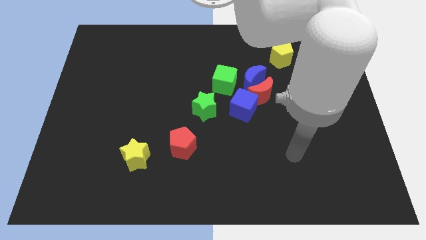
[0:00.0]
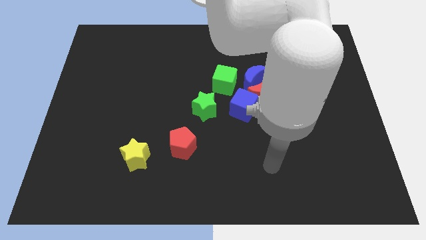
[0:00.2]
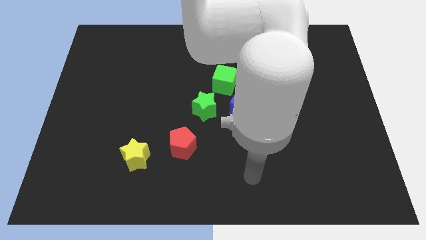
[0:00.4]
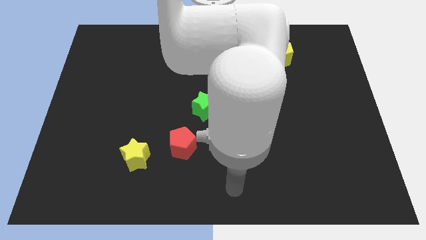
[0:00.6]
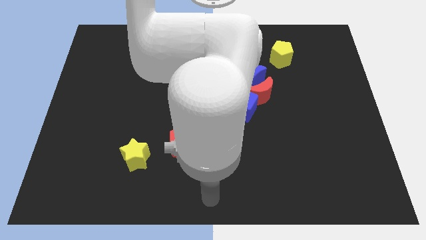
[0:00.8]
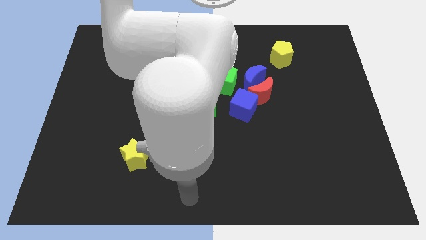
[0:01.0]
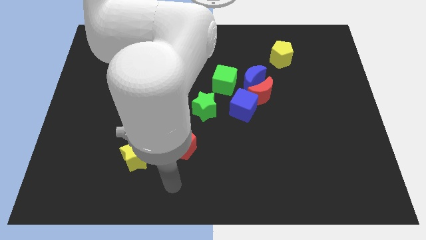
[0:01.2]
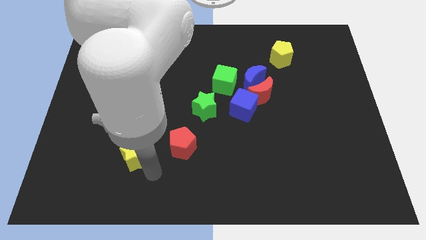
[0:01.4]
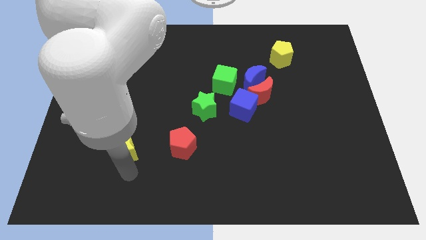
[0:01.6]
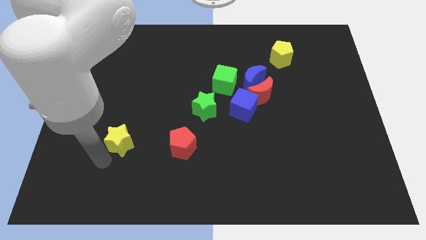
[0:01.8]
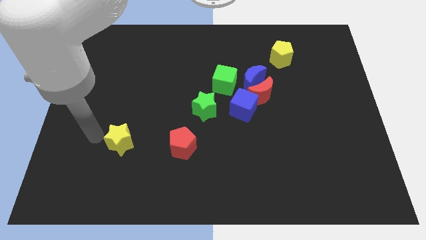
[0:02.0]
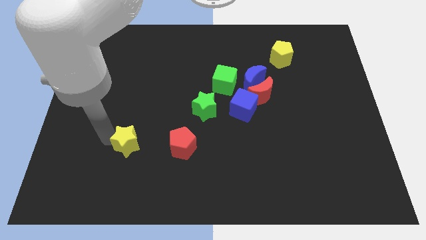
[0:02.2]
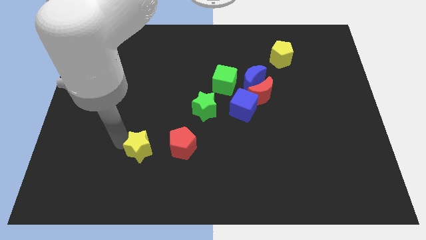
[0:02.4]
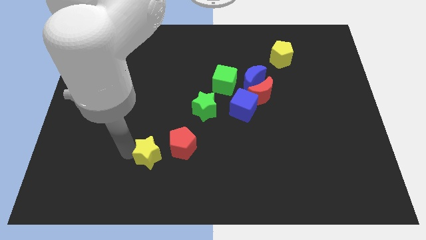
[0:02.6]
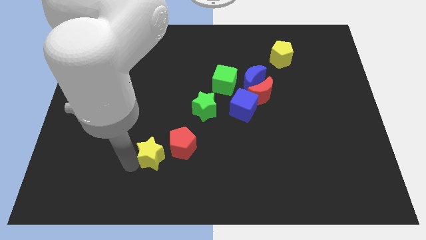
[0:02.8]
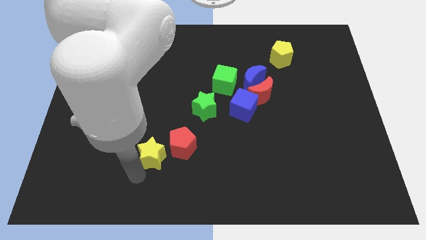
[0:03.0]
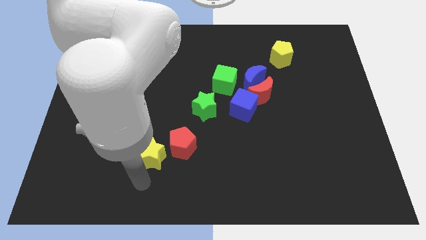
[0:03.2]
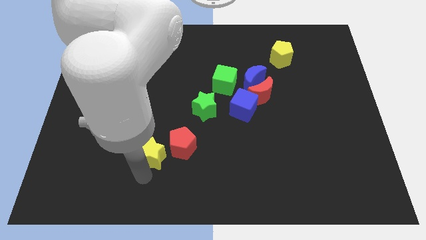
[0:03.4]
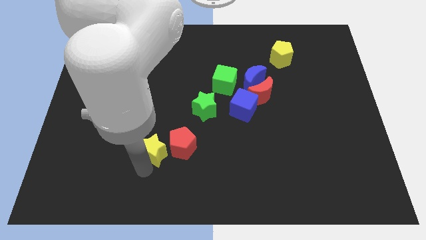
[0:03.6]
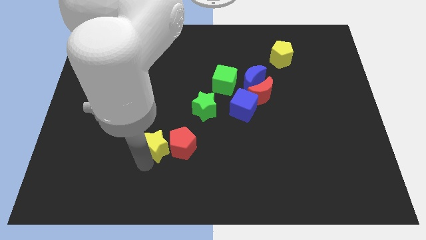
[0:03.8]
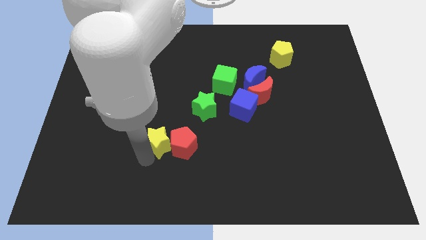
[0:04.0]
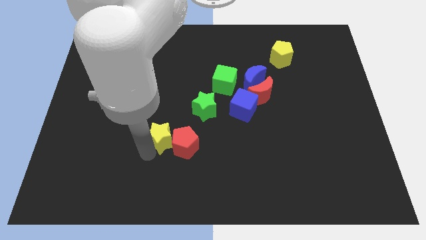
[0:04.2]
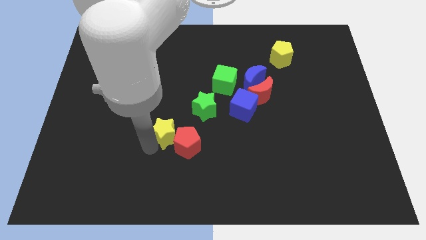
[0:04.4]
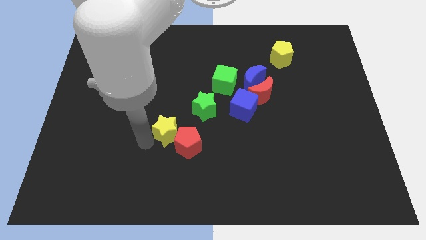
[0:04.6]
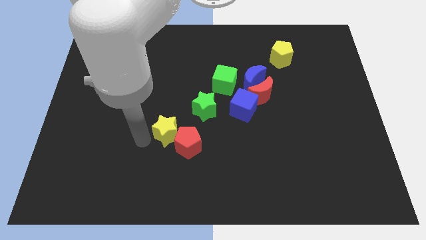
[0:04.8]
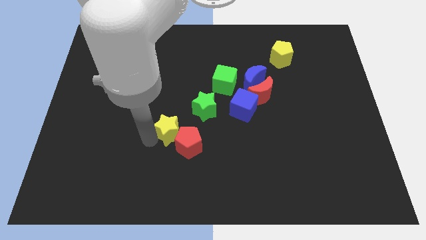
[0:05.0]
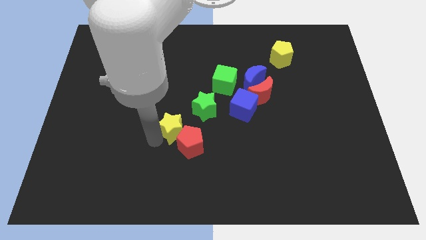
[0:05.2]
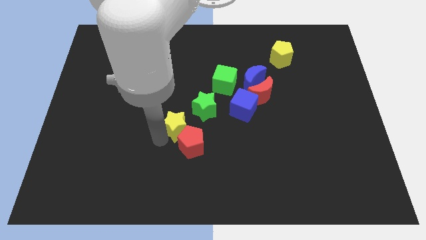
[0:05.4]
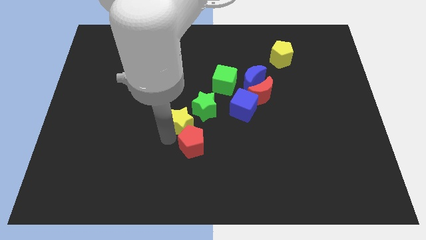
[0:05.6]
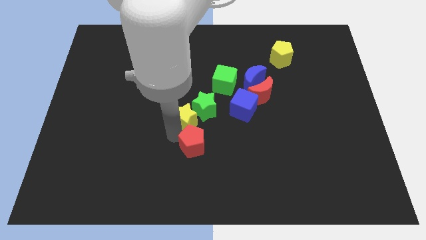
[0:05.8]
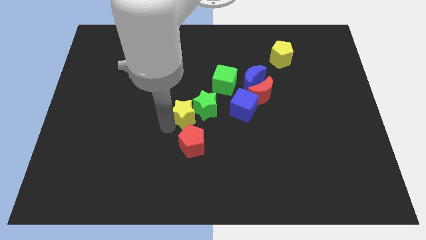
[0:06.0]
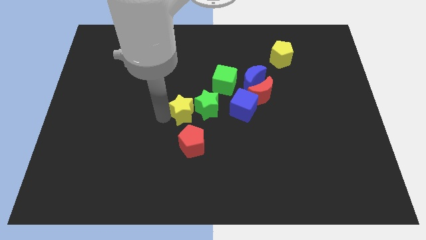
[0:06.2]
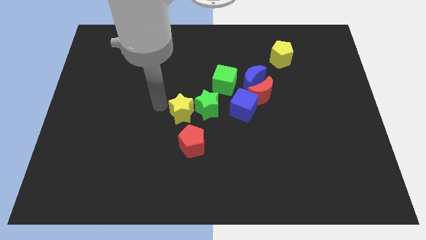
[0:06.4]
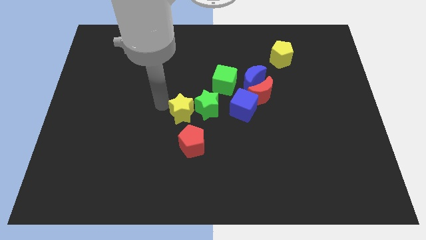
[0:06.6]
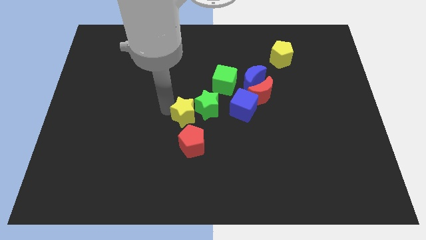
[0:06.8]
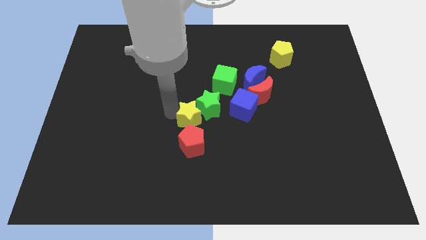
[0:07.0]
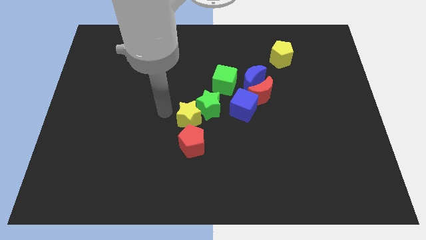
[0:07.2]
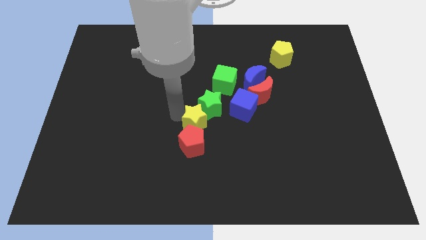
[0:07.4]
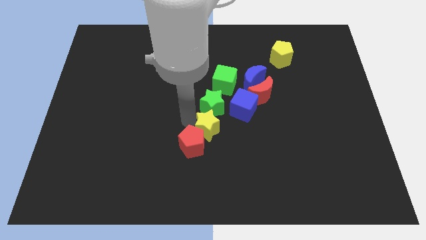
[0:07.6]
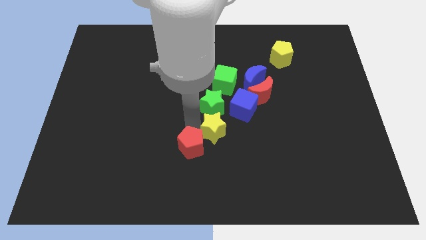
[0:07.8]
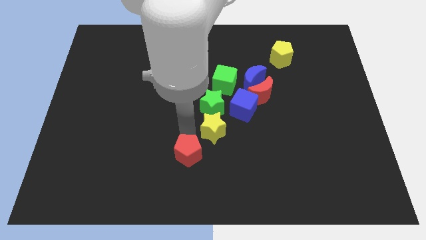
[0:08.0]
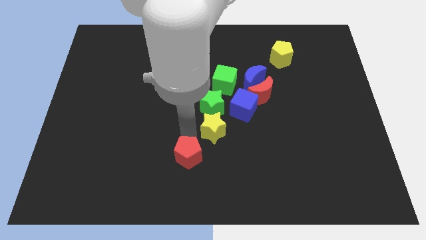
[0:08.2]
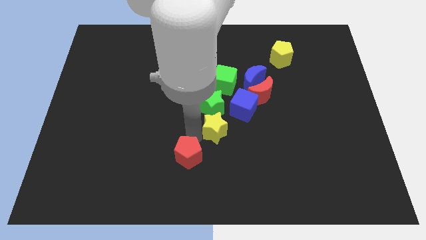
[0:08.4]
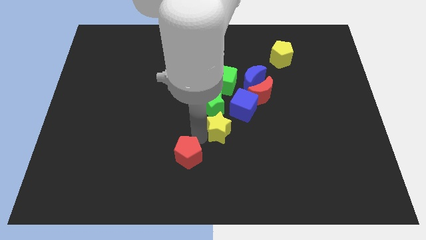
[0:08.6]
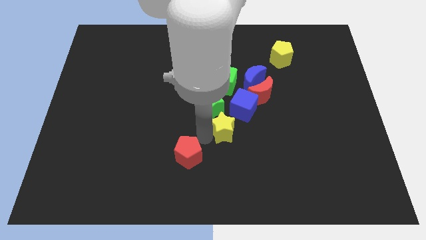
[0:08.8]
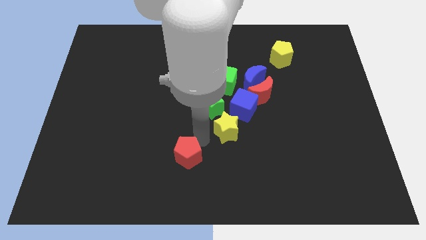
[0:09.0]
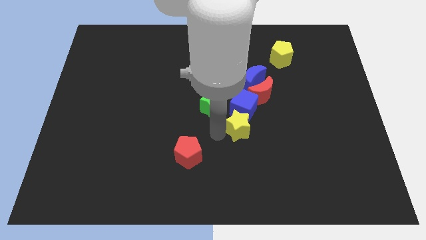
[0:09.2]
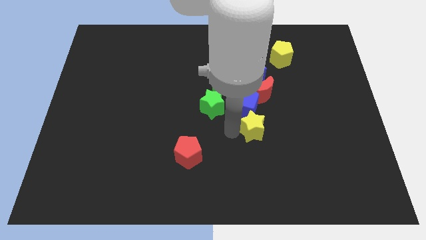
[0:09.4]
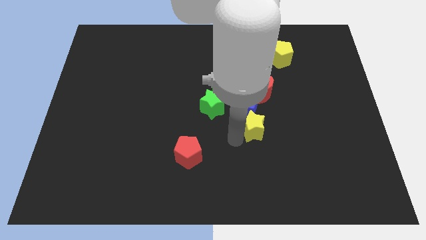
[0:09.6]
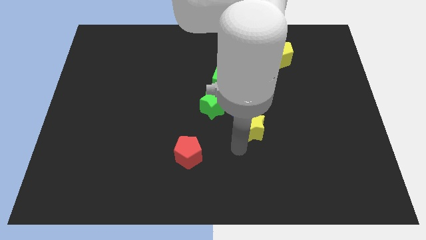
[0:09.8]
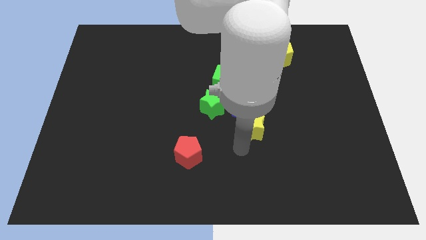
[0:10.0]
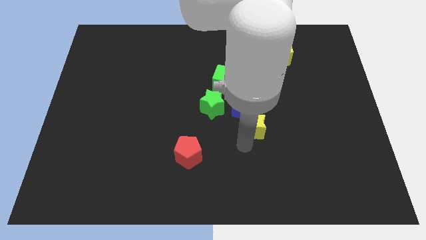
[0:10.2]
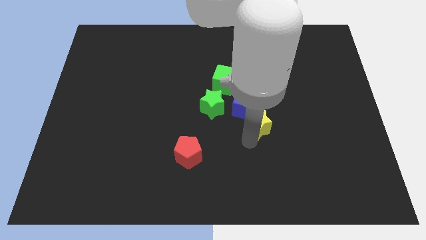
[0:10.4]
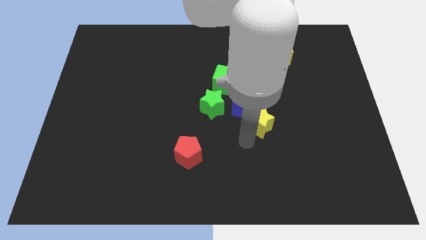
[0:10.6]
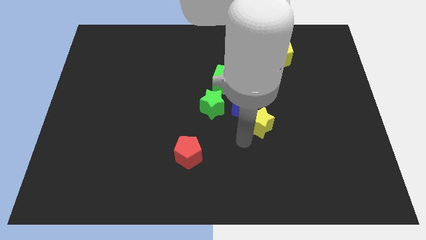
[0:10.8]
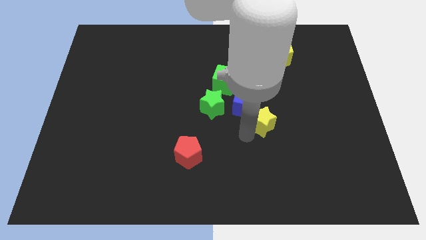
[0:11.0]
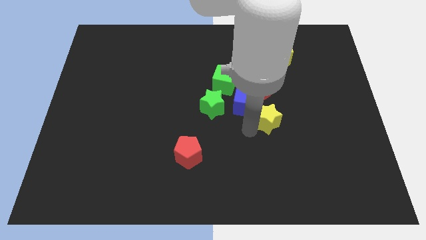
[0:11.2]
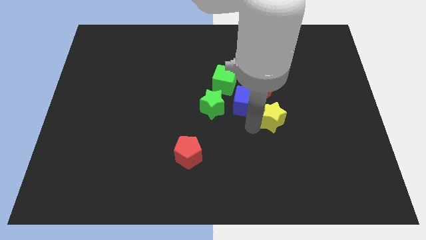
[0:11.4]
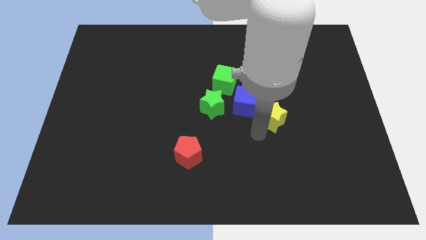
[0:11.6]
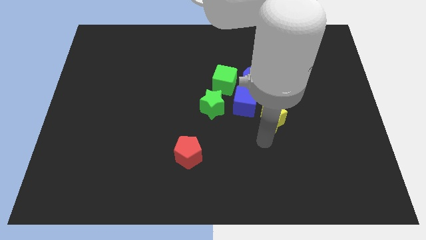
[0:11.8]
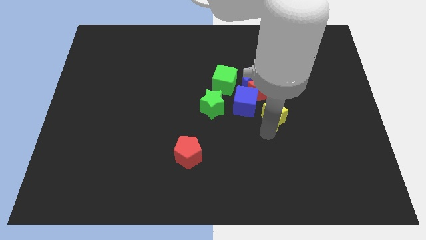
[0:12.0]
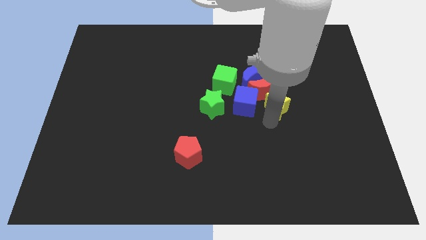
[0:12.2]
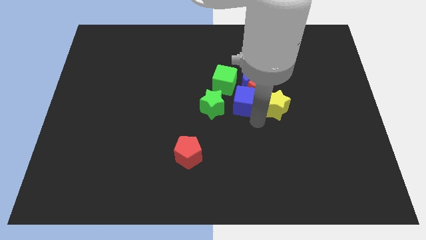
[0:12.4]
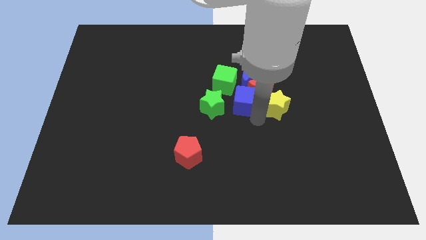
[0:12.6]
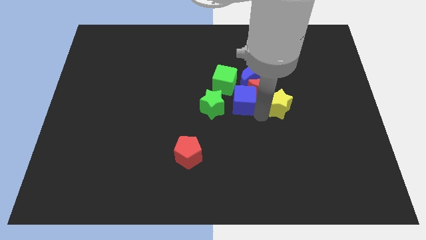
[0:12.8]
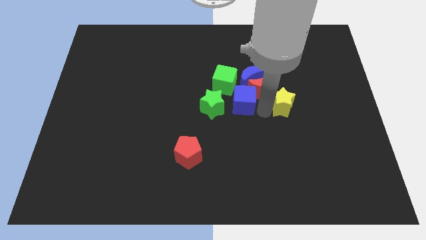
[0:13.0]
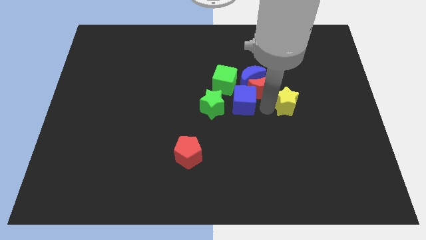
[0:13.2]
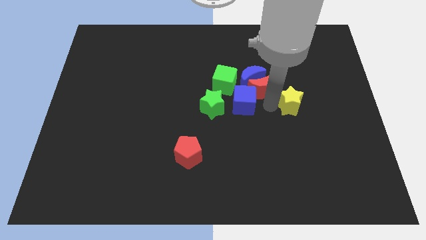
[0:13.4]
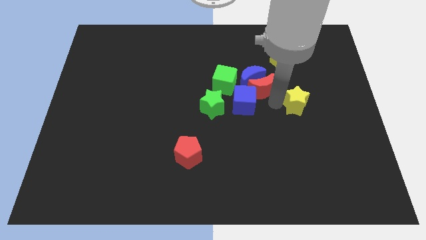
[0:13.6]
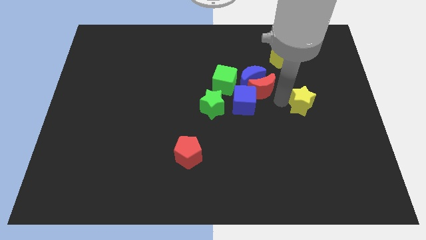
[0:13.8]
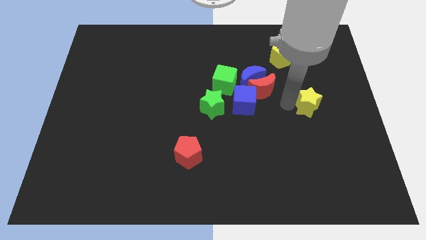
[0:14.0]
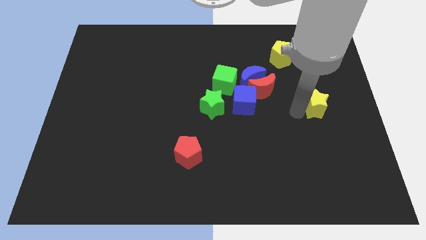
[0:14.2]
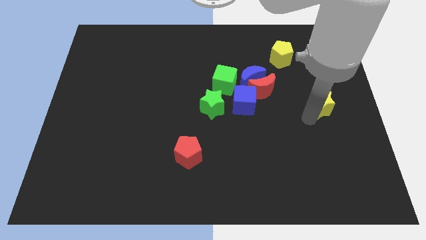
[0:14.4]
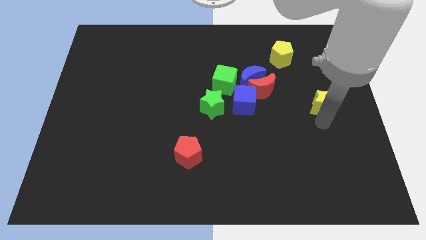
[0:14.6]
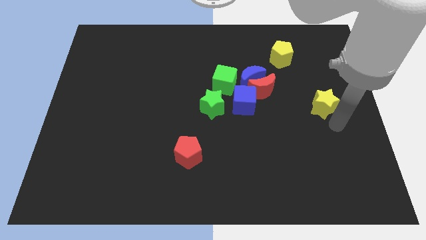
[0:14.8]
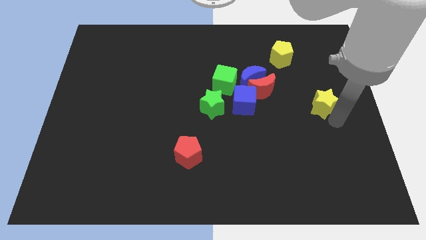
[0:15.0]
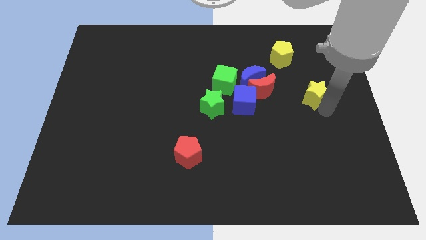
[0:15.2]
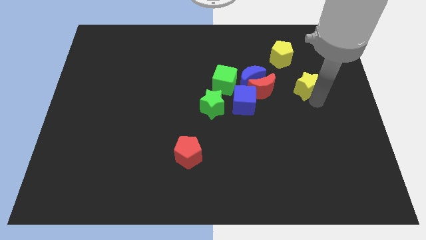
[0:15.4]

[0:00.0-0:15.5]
put the yellow star to the bottom right of the yellow pentagon

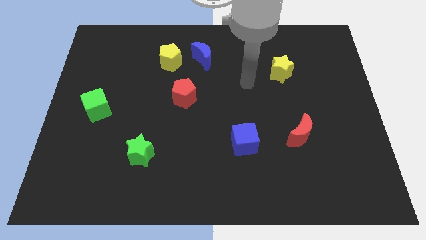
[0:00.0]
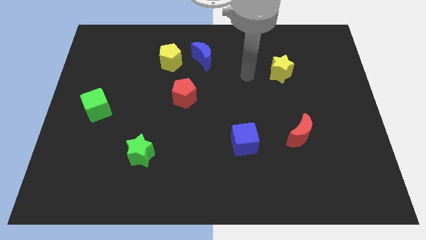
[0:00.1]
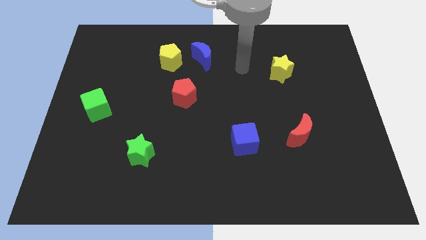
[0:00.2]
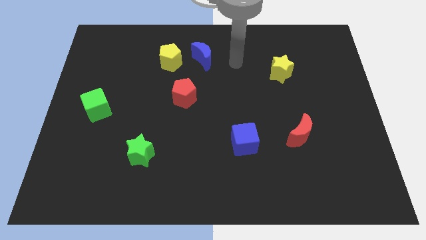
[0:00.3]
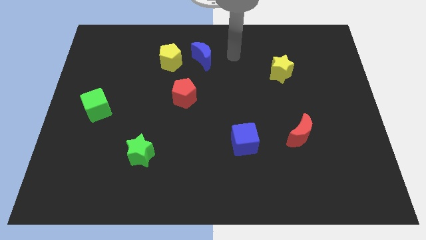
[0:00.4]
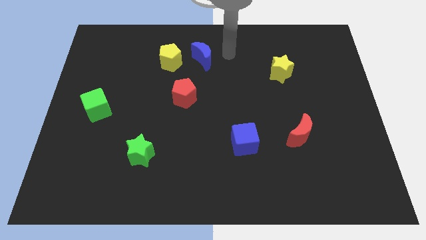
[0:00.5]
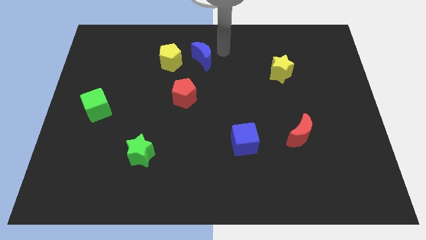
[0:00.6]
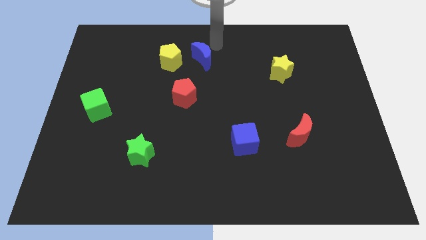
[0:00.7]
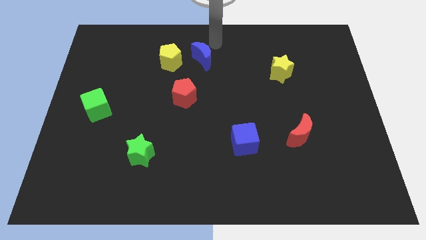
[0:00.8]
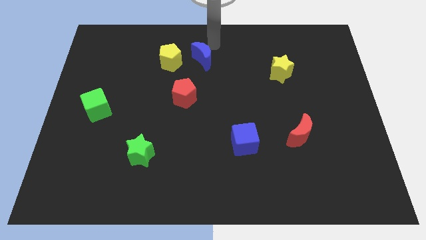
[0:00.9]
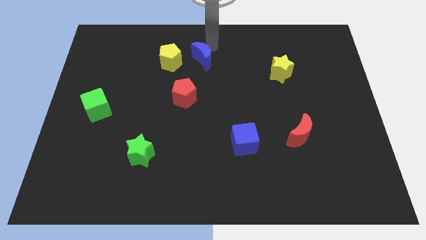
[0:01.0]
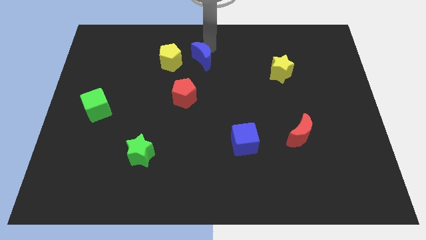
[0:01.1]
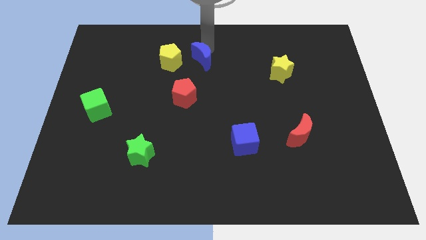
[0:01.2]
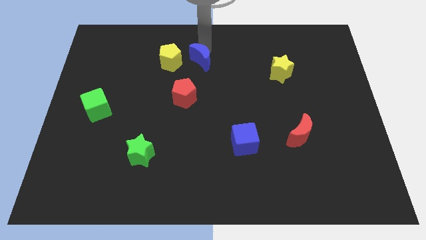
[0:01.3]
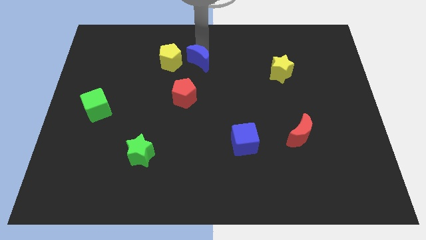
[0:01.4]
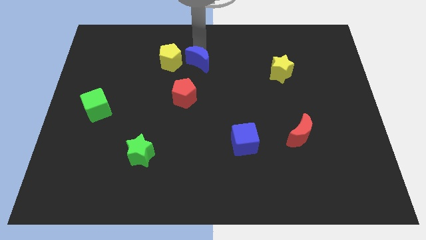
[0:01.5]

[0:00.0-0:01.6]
push the blue moon to the bottom right side of the yellow pentagon
